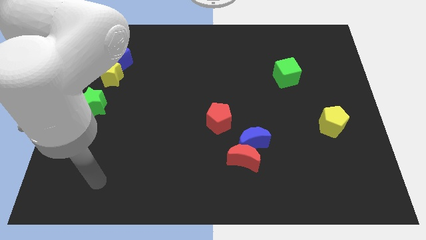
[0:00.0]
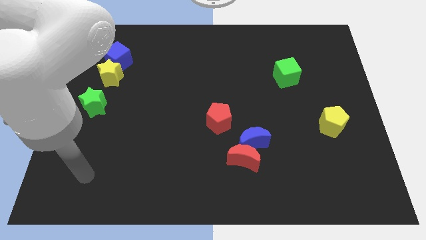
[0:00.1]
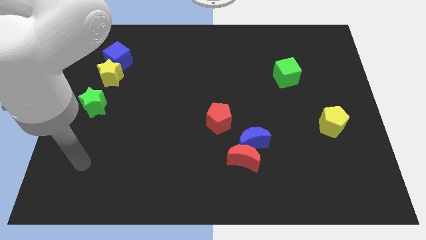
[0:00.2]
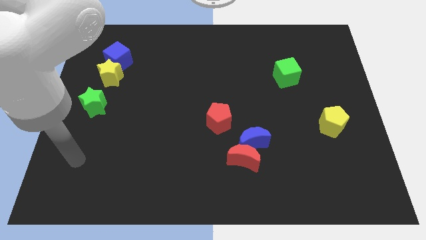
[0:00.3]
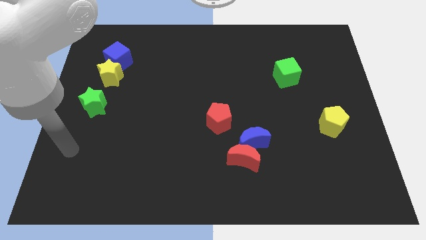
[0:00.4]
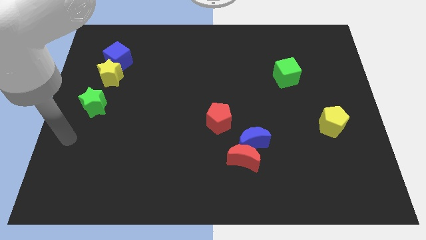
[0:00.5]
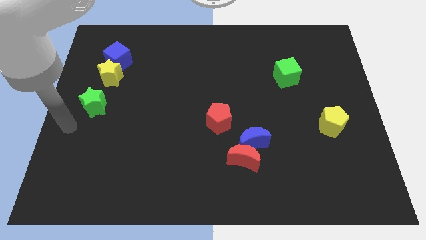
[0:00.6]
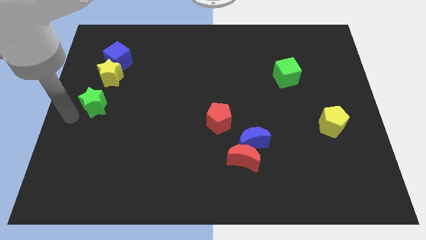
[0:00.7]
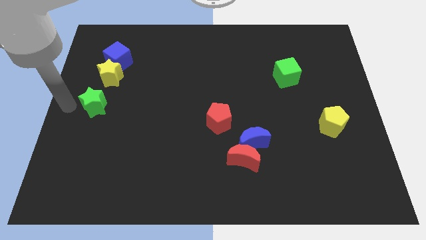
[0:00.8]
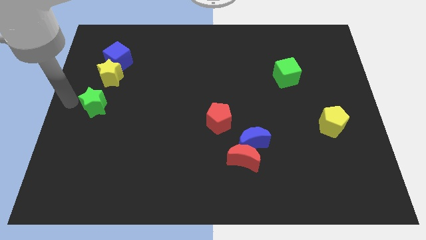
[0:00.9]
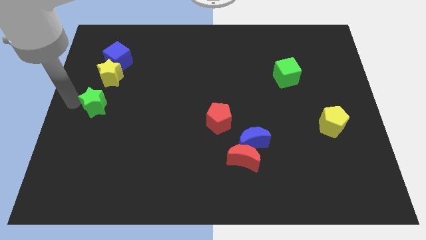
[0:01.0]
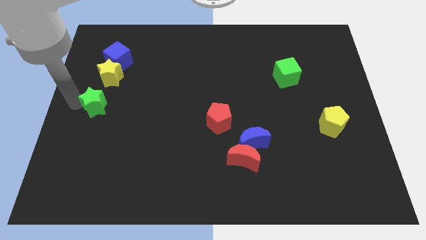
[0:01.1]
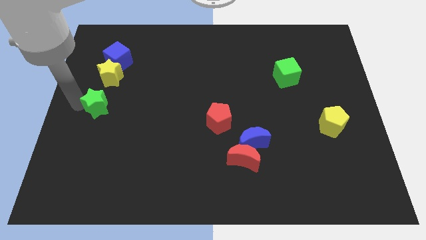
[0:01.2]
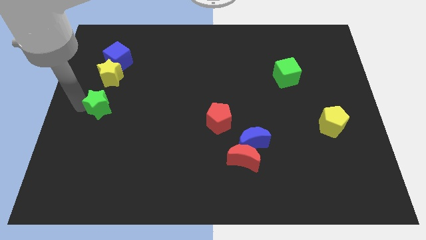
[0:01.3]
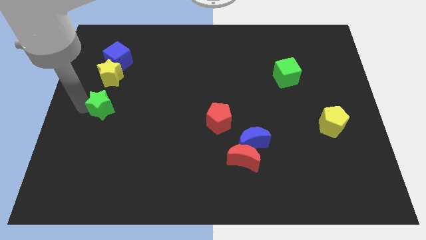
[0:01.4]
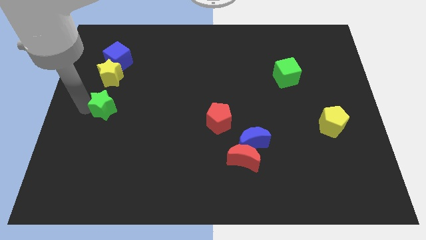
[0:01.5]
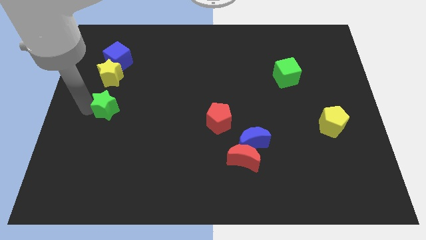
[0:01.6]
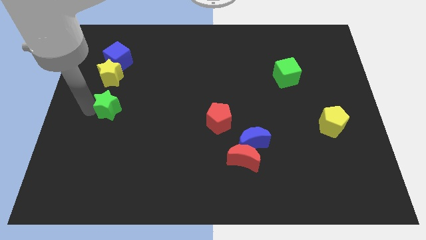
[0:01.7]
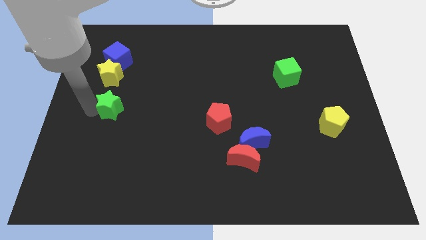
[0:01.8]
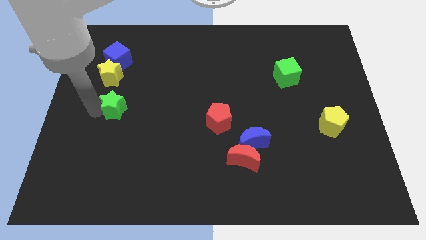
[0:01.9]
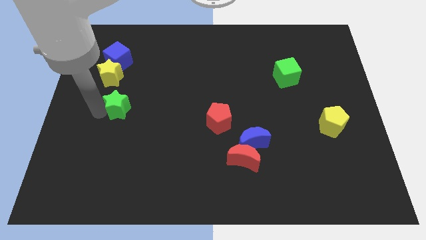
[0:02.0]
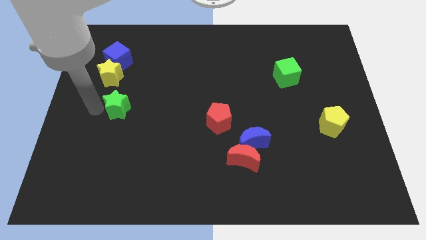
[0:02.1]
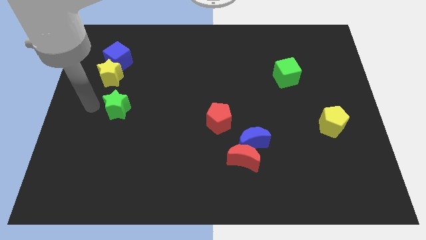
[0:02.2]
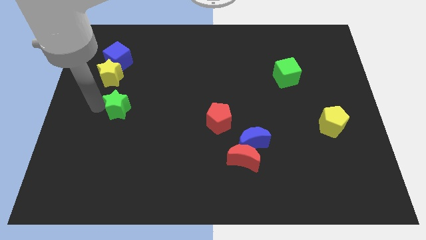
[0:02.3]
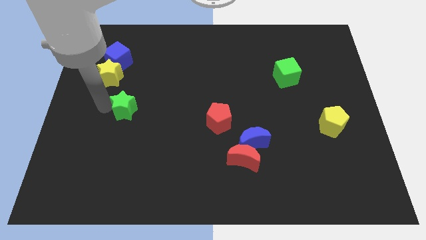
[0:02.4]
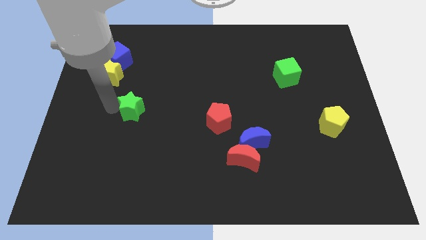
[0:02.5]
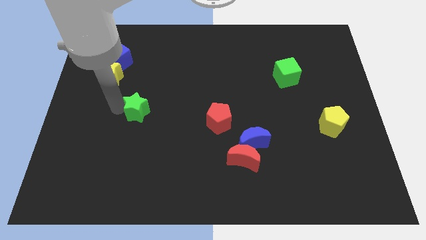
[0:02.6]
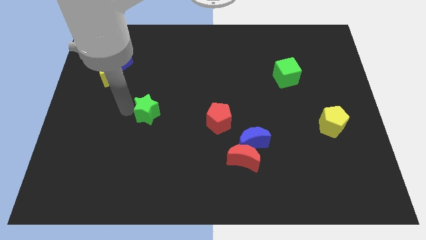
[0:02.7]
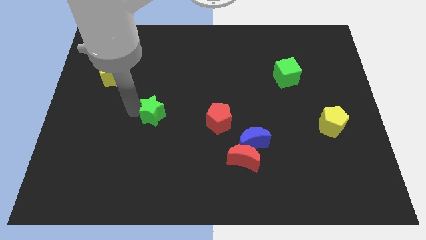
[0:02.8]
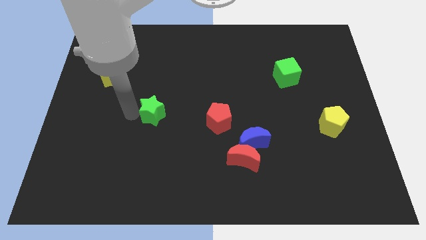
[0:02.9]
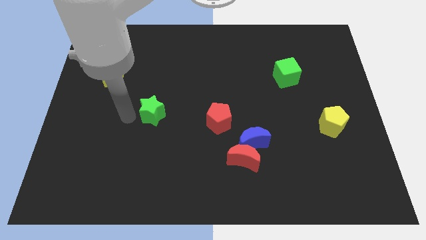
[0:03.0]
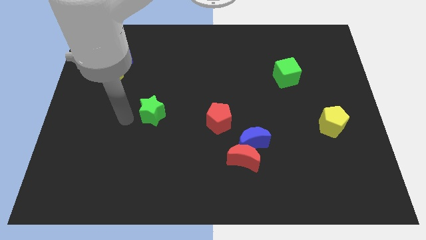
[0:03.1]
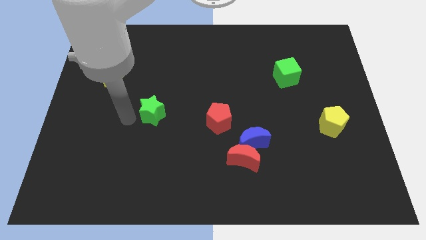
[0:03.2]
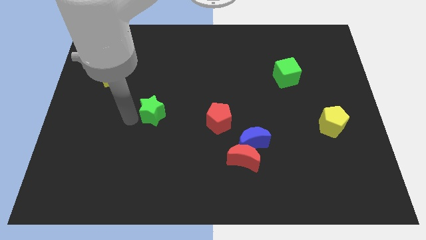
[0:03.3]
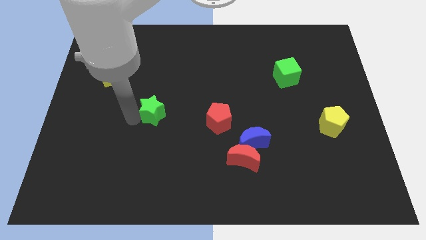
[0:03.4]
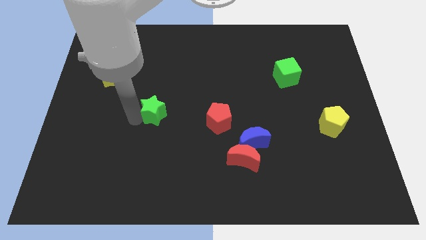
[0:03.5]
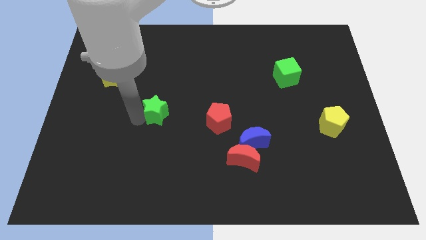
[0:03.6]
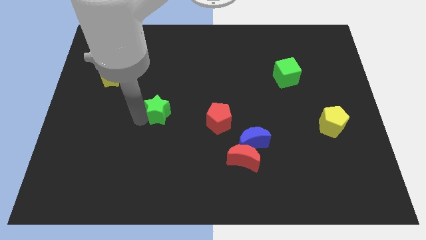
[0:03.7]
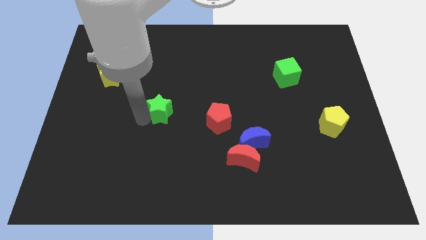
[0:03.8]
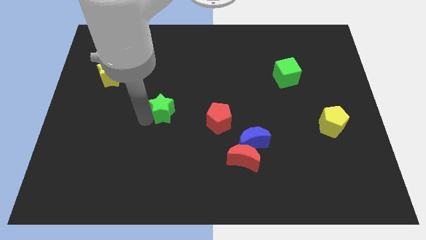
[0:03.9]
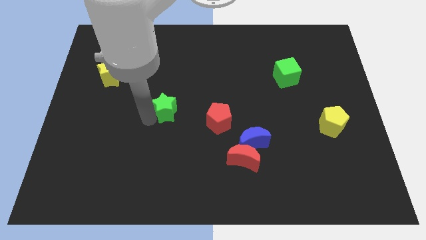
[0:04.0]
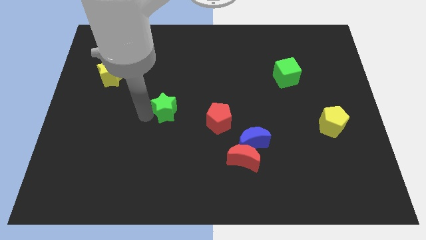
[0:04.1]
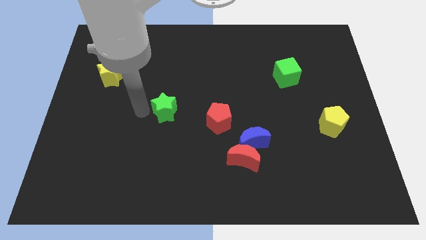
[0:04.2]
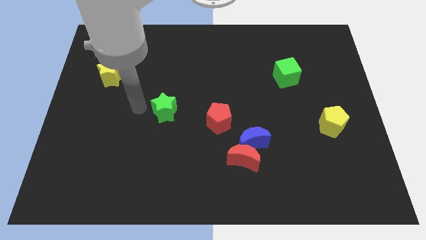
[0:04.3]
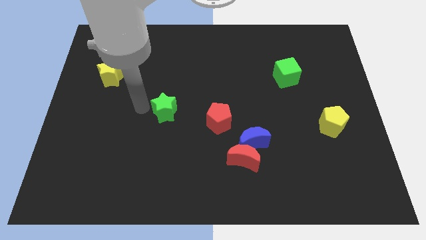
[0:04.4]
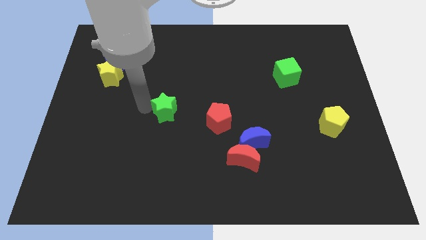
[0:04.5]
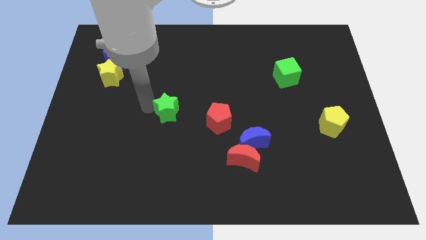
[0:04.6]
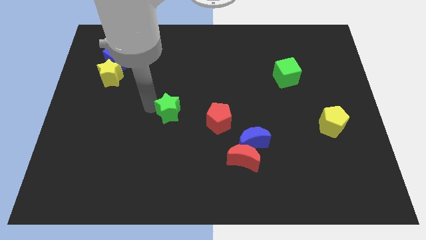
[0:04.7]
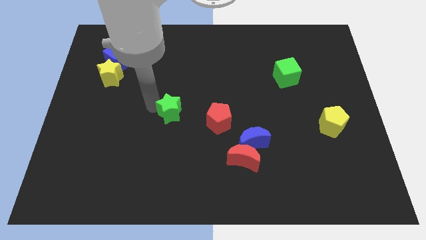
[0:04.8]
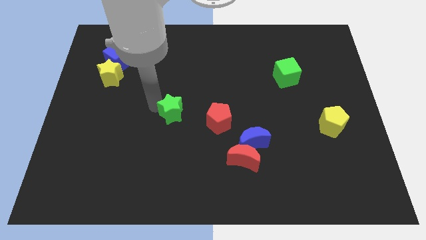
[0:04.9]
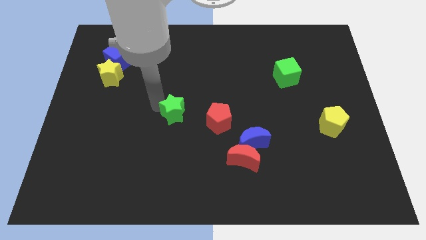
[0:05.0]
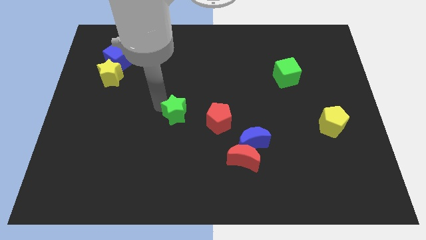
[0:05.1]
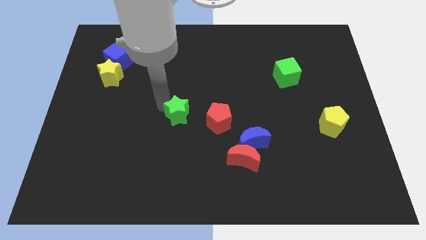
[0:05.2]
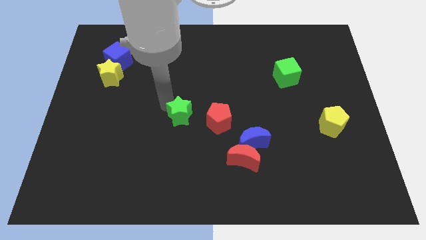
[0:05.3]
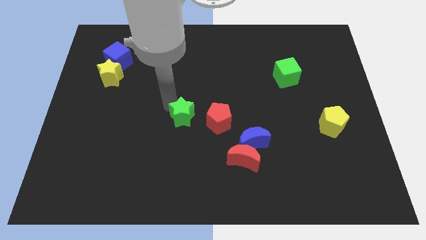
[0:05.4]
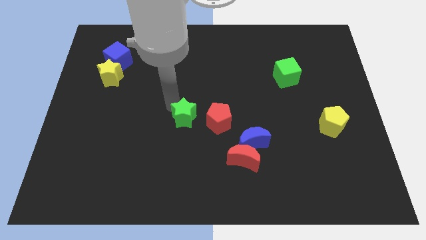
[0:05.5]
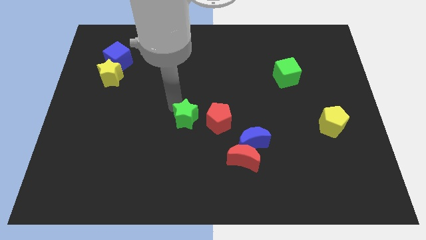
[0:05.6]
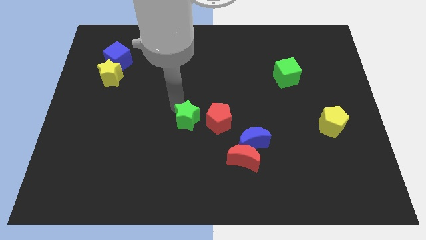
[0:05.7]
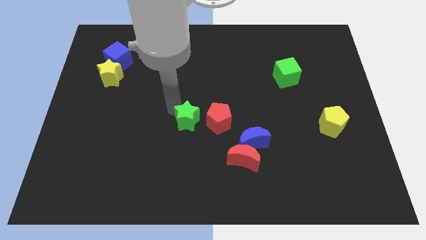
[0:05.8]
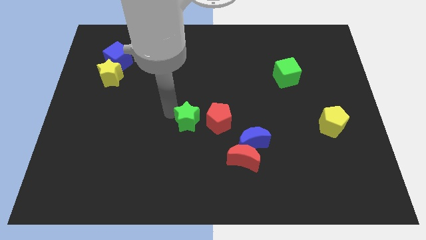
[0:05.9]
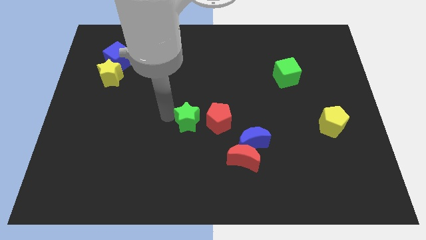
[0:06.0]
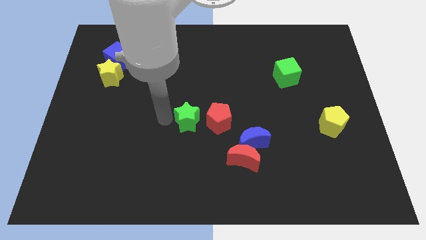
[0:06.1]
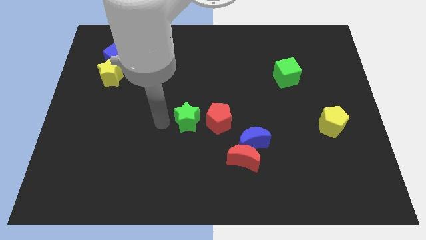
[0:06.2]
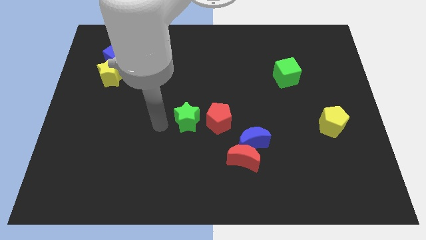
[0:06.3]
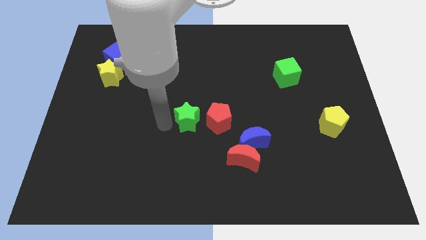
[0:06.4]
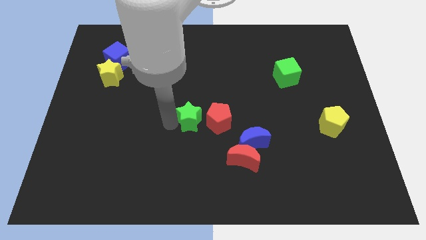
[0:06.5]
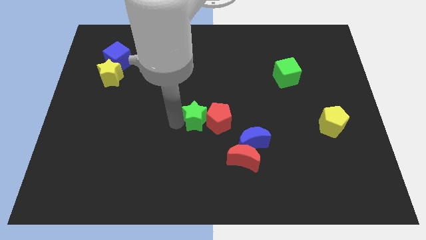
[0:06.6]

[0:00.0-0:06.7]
push the green star to the red pentagon
